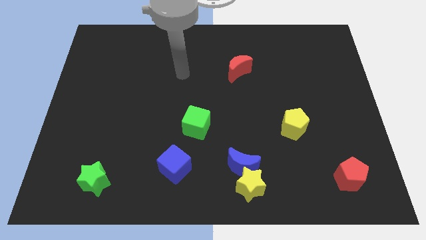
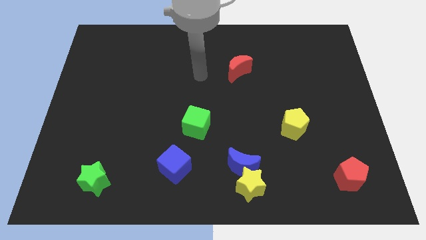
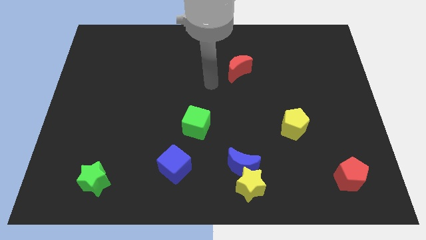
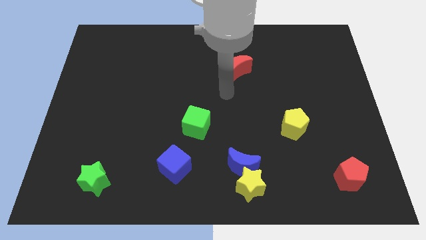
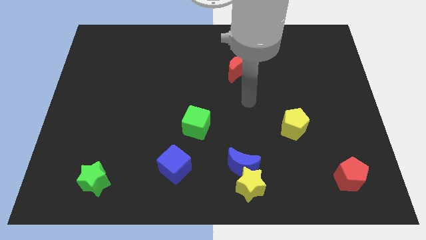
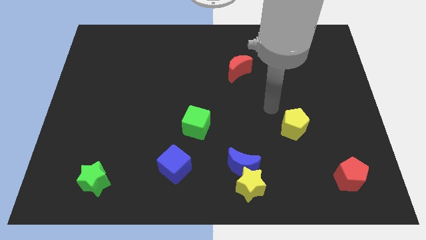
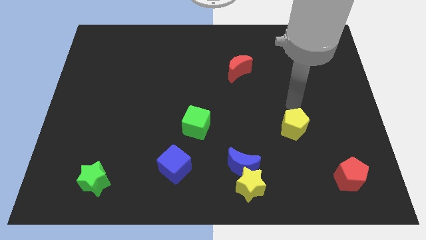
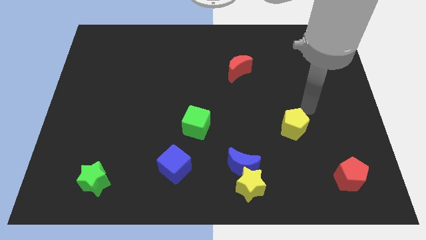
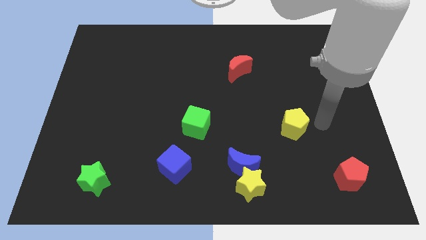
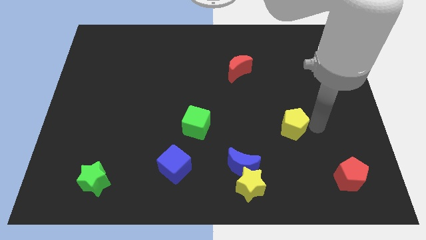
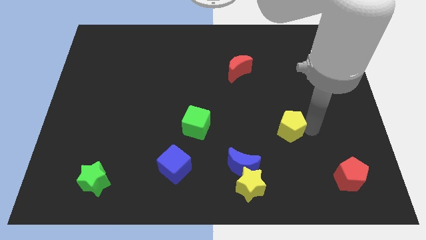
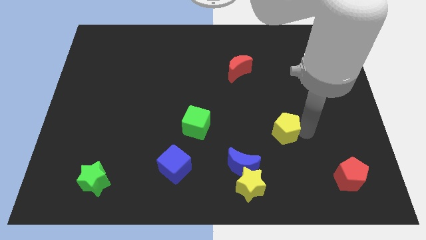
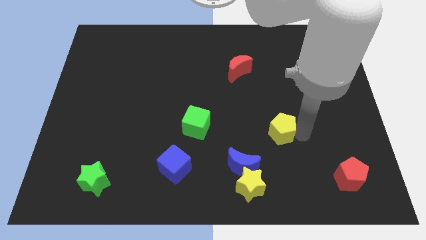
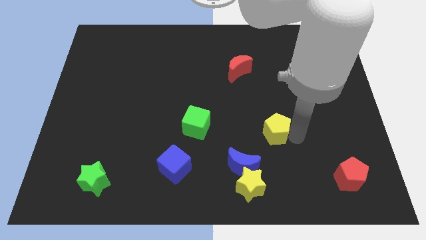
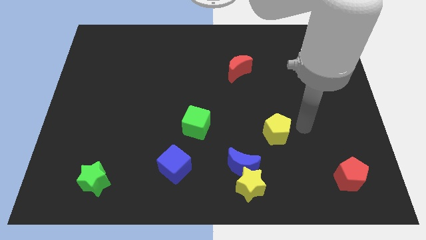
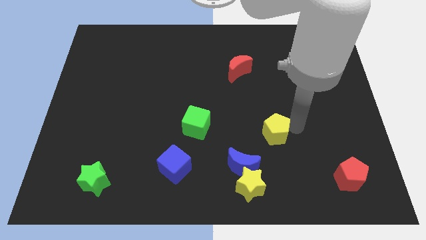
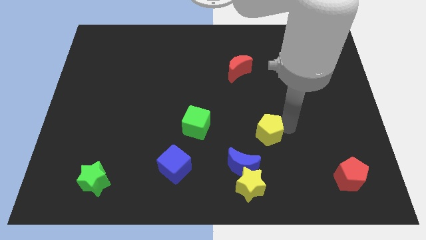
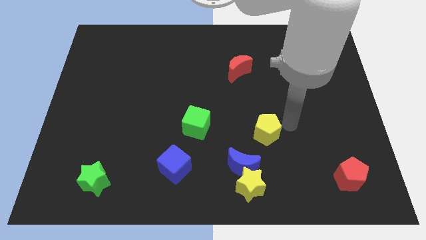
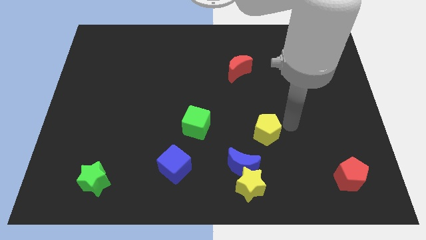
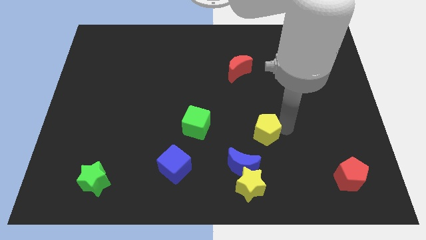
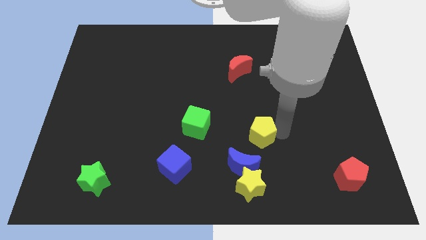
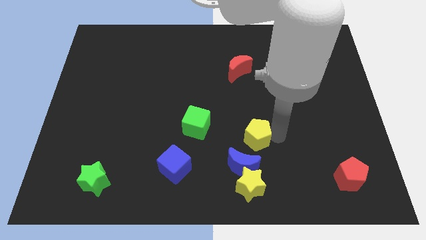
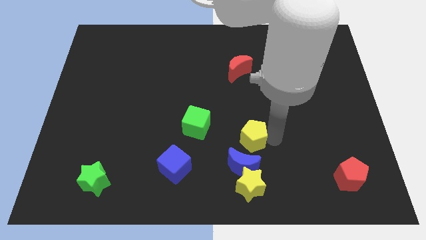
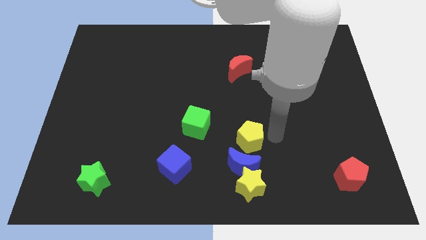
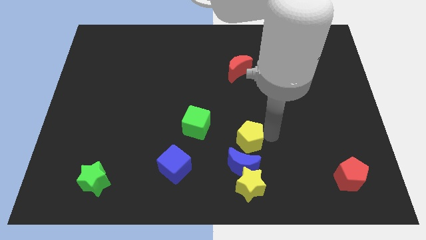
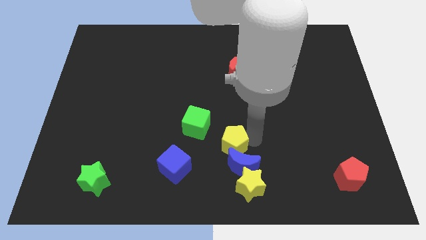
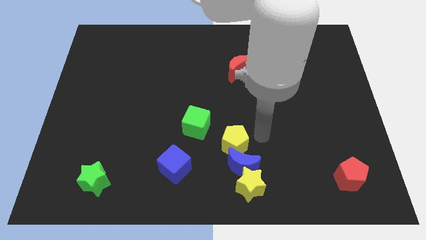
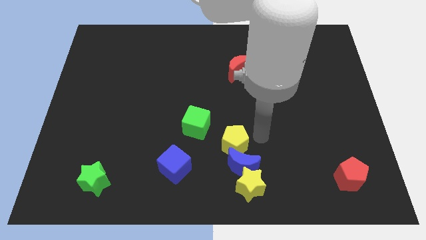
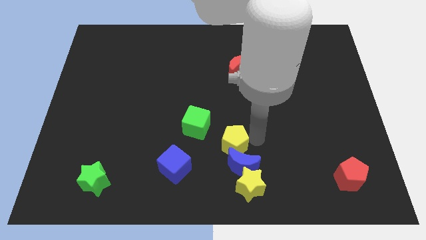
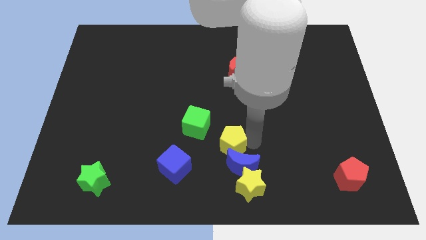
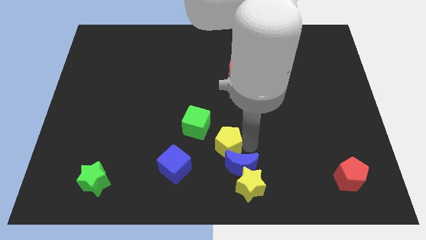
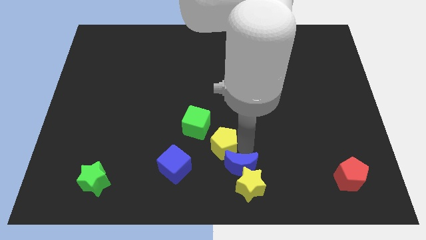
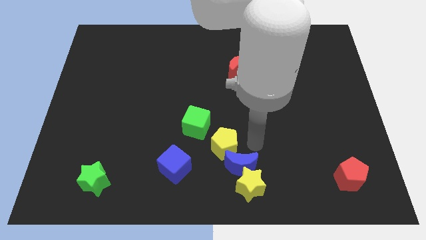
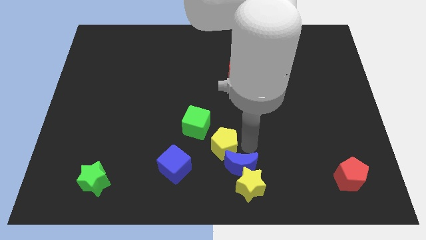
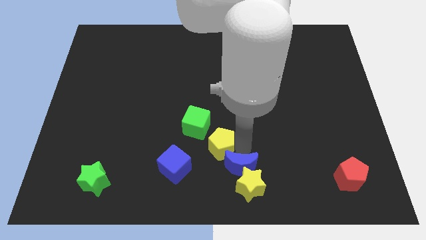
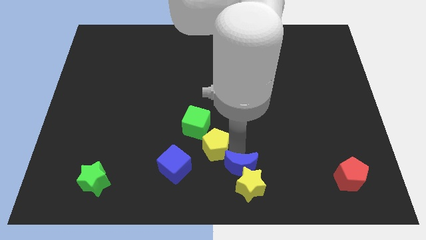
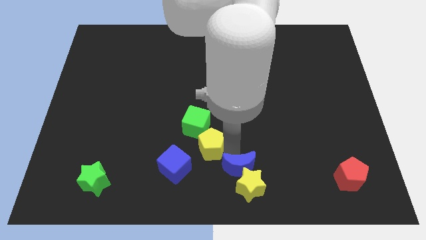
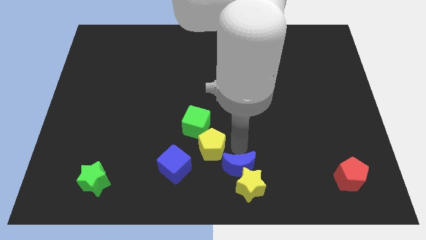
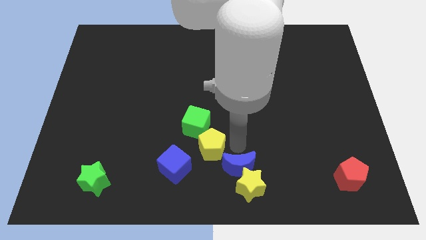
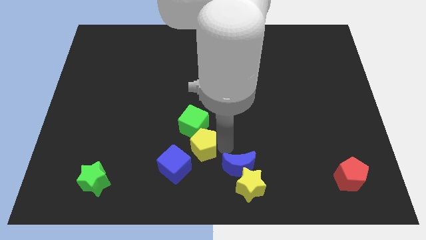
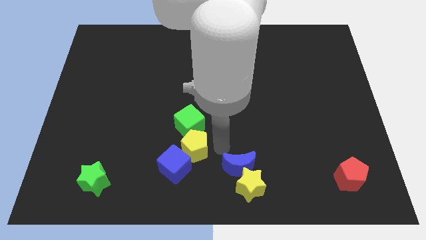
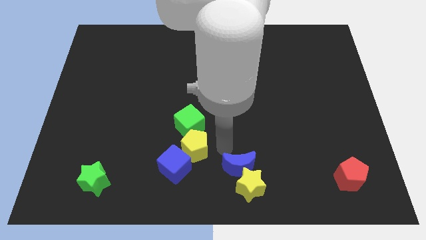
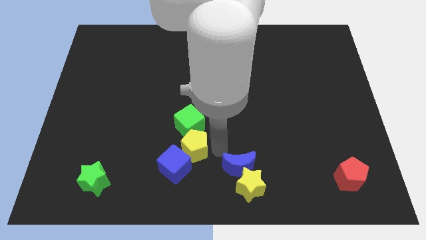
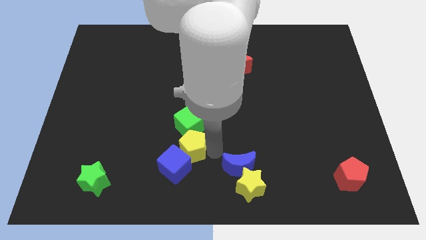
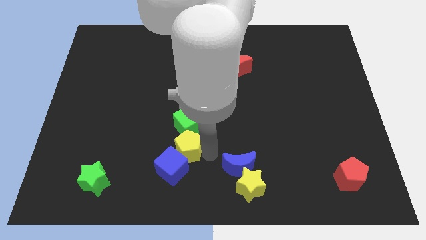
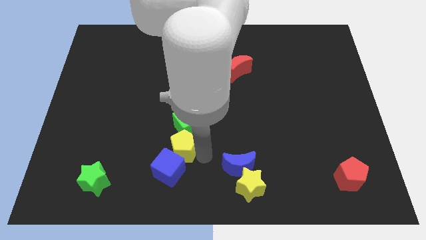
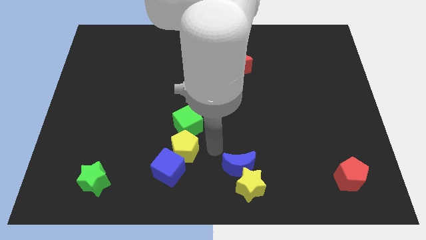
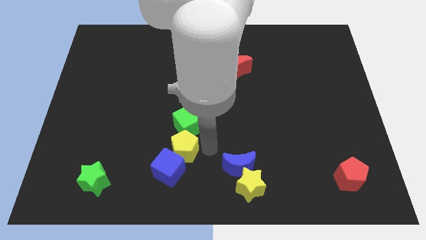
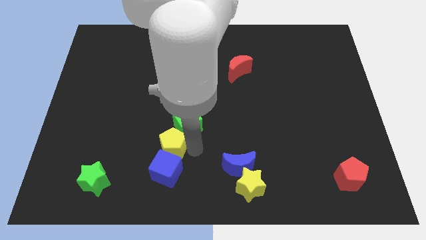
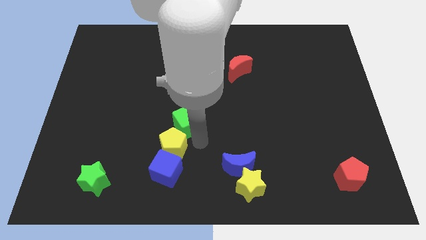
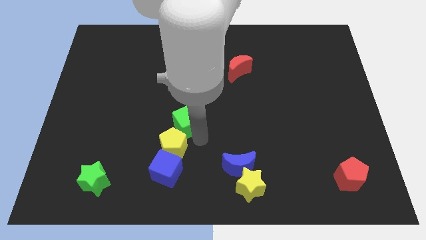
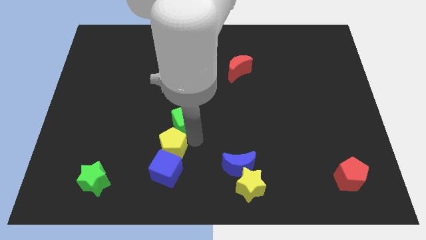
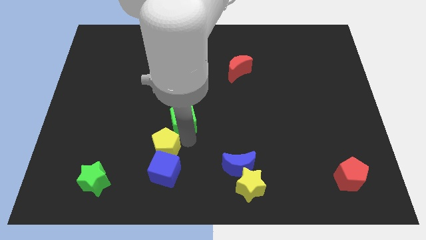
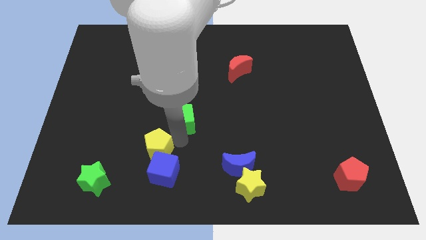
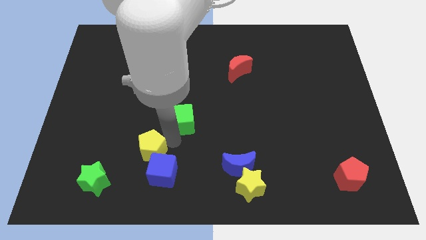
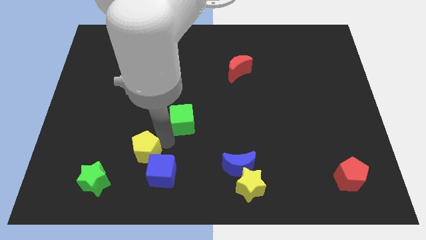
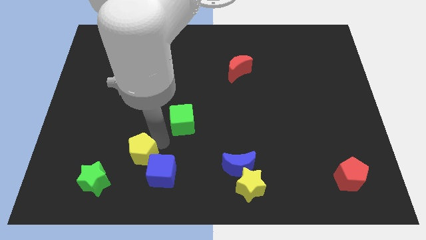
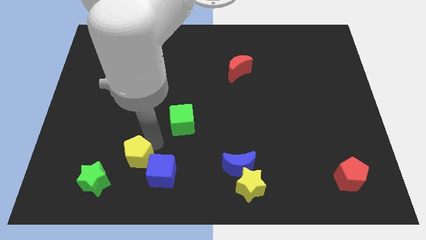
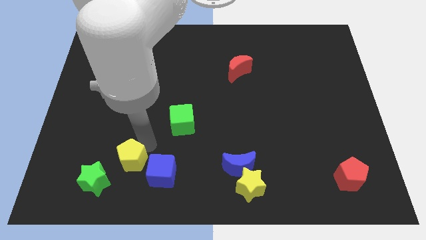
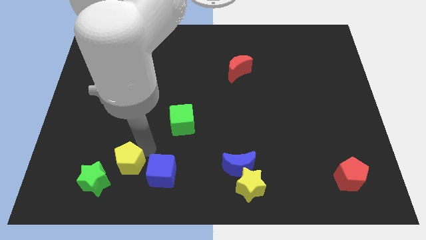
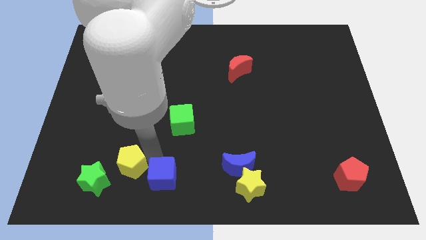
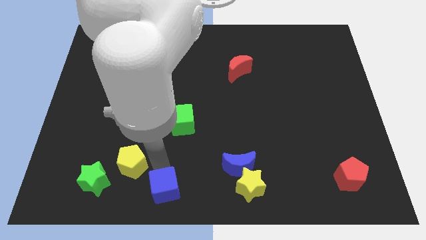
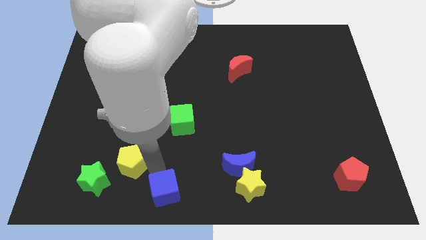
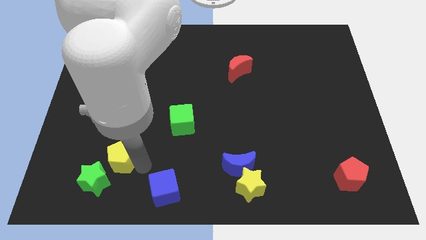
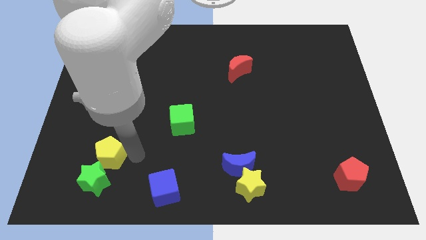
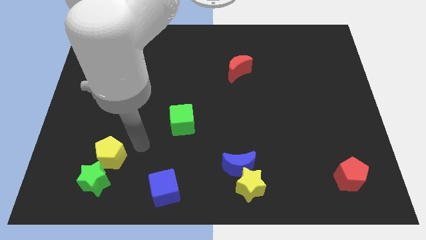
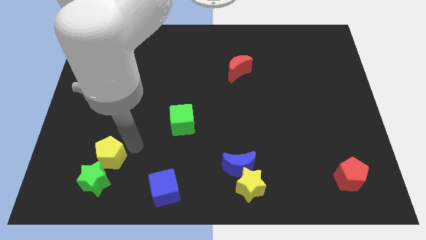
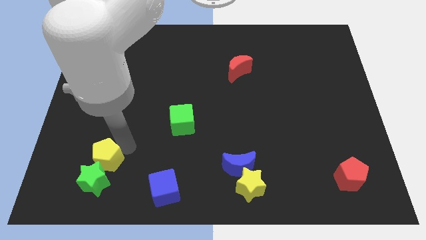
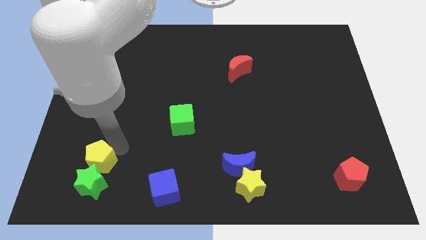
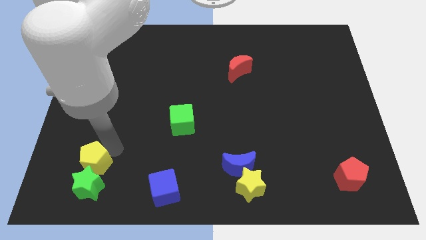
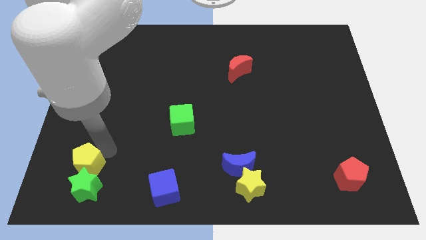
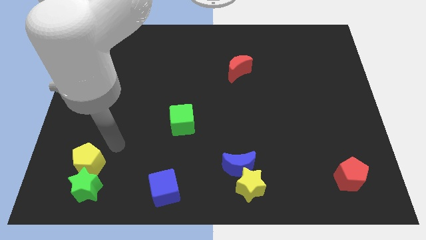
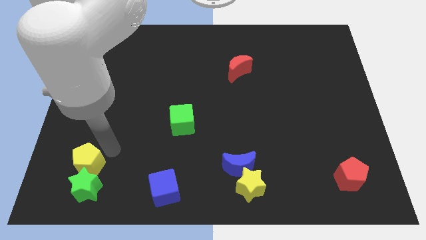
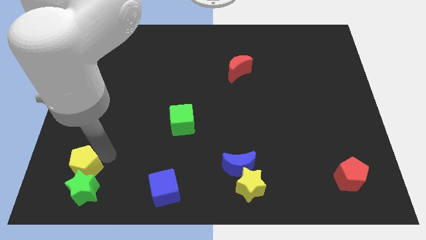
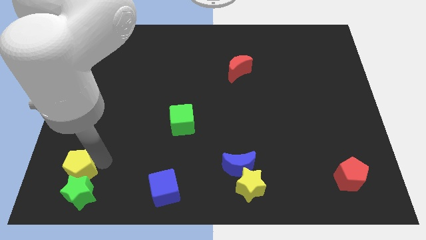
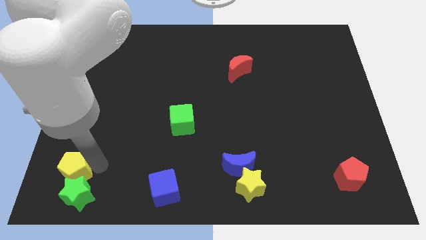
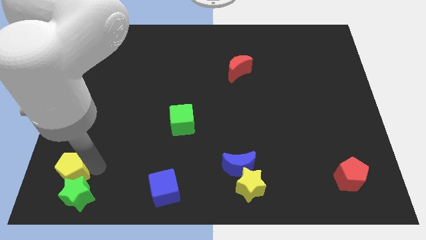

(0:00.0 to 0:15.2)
move the yellow pentagon to the bottom left of the board
